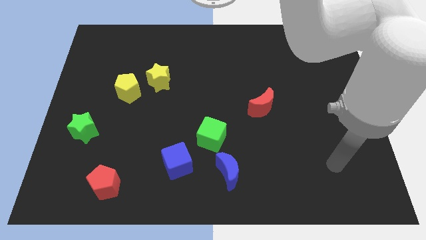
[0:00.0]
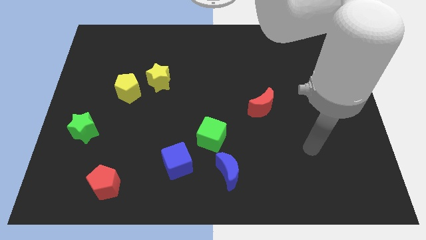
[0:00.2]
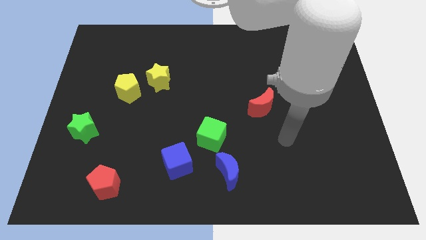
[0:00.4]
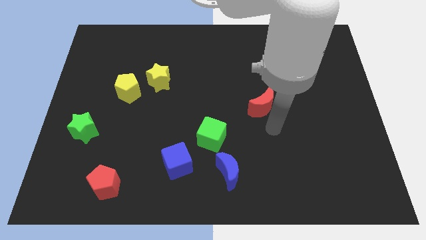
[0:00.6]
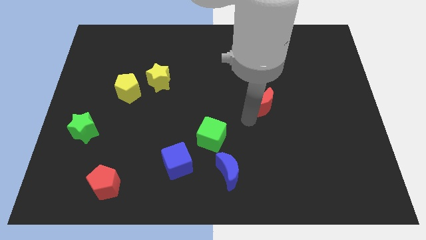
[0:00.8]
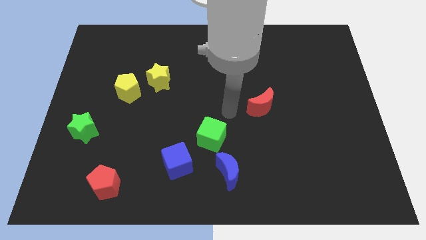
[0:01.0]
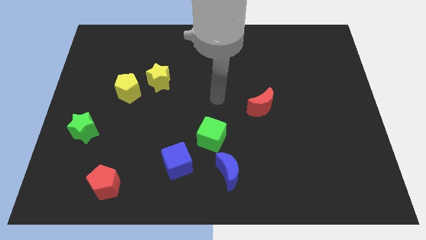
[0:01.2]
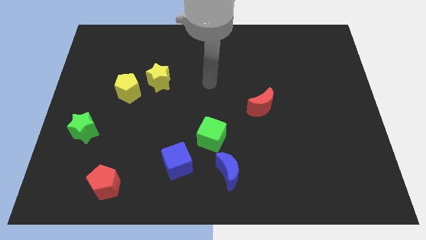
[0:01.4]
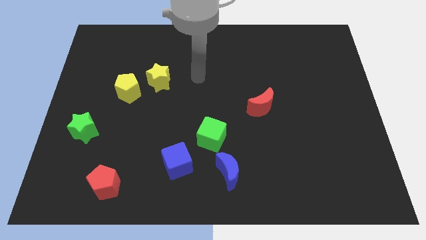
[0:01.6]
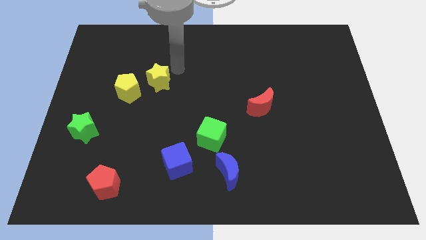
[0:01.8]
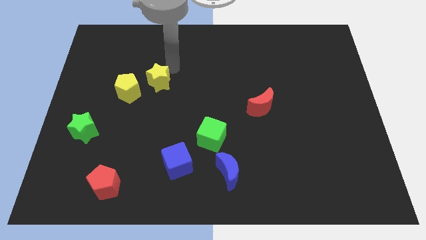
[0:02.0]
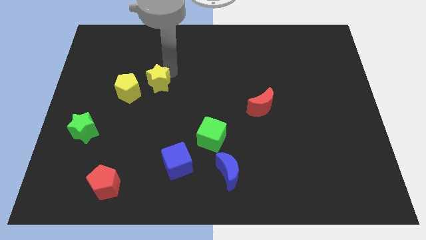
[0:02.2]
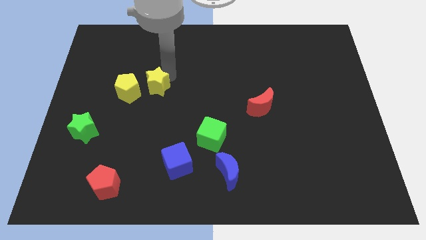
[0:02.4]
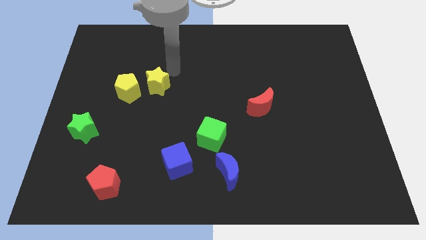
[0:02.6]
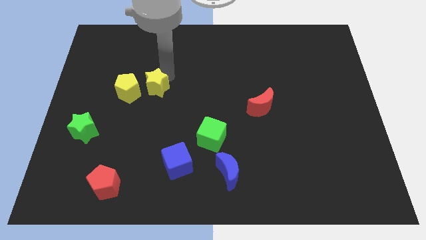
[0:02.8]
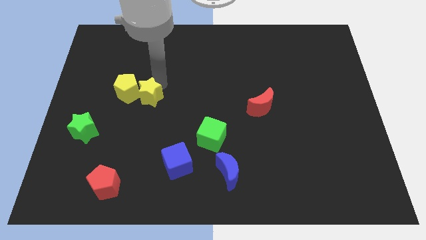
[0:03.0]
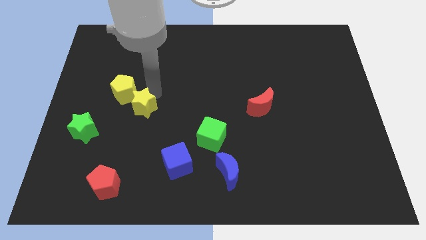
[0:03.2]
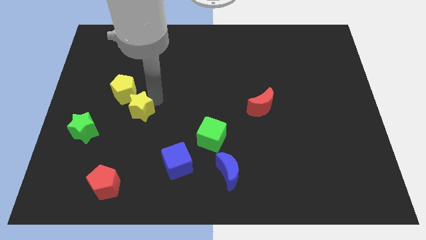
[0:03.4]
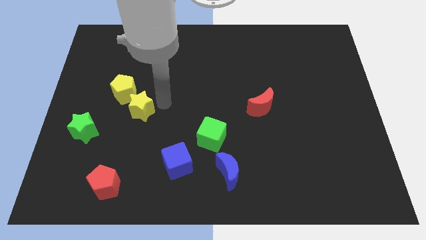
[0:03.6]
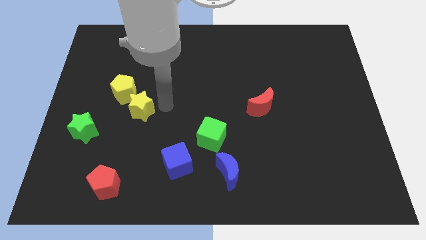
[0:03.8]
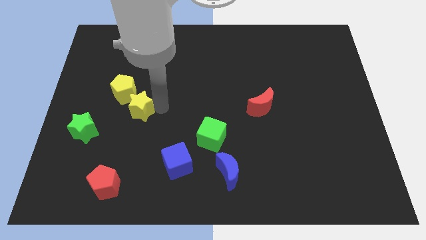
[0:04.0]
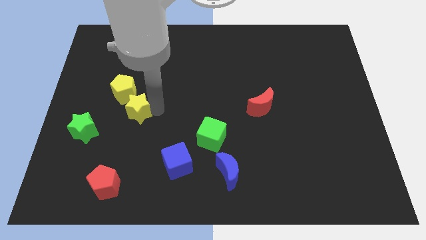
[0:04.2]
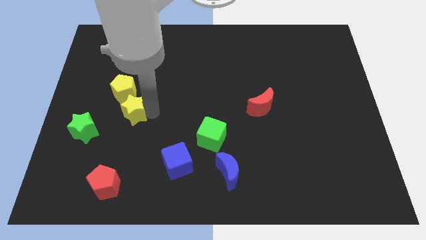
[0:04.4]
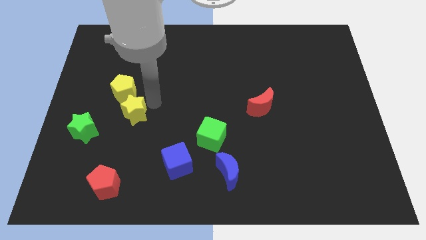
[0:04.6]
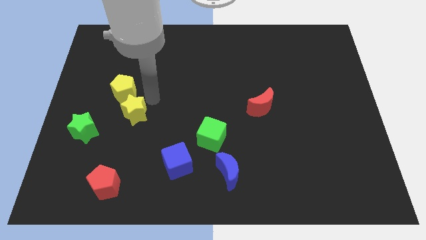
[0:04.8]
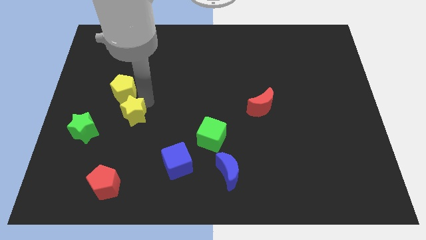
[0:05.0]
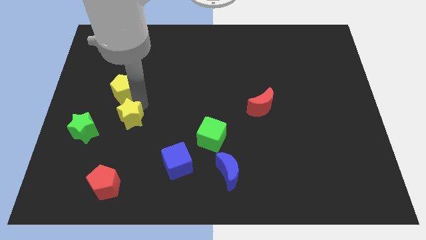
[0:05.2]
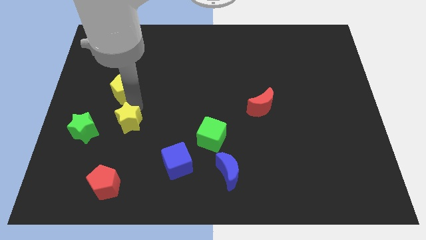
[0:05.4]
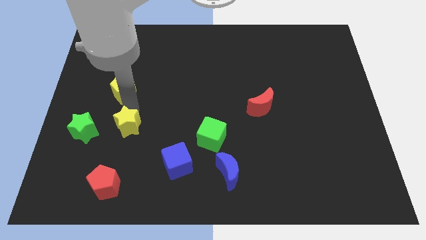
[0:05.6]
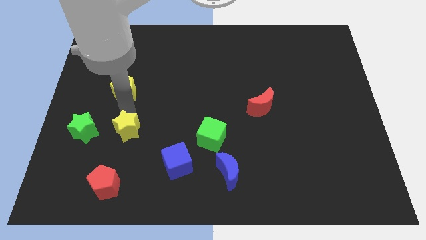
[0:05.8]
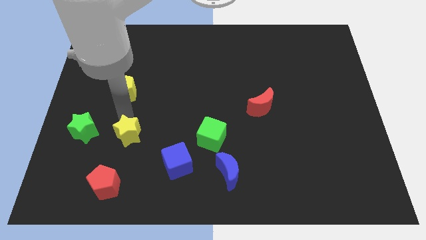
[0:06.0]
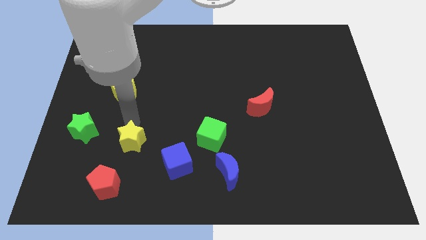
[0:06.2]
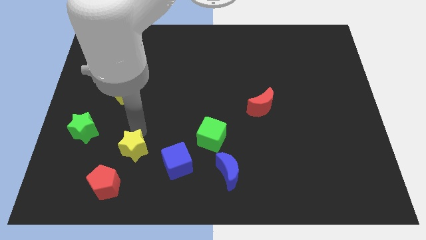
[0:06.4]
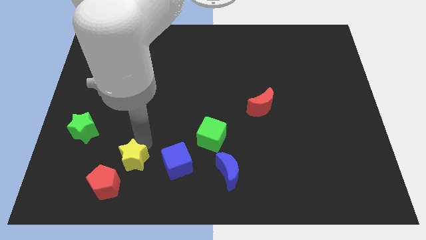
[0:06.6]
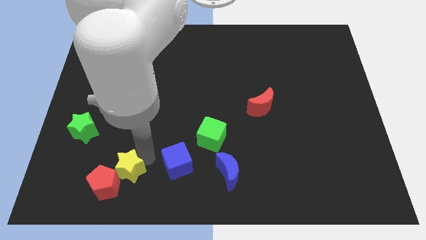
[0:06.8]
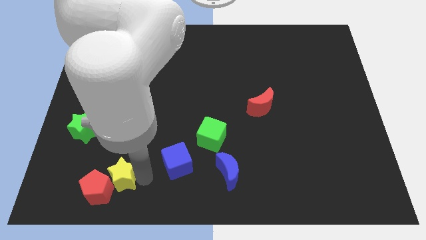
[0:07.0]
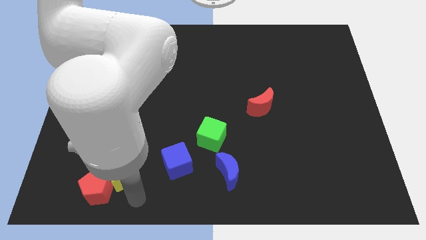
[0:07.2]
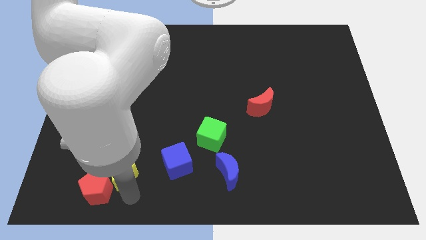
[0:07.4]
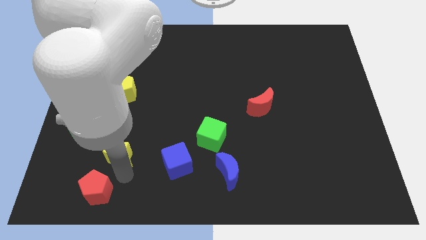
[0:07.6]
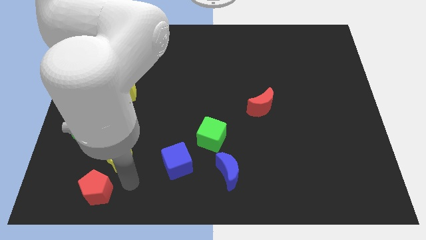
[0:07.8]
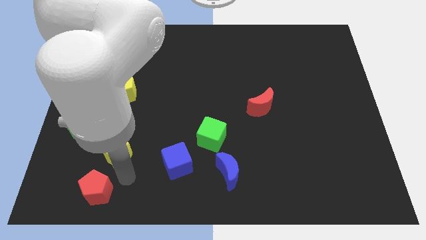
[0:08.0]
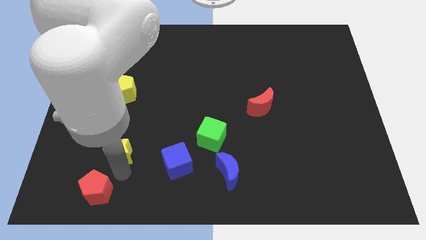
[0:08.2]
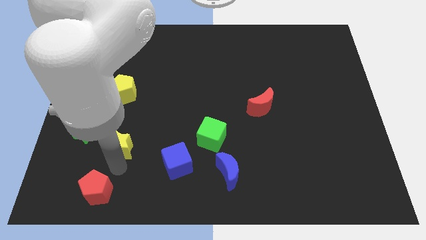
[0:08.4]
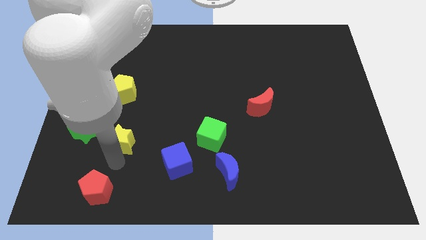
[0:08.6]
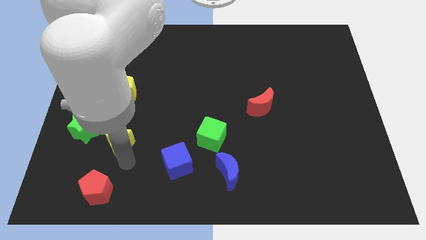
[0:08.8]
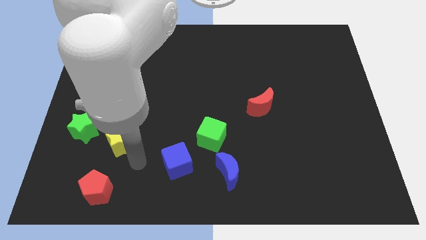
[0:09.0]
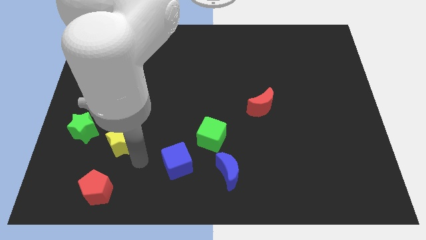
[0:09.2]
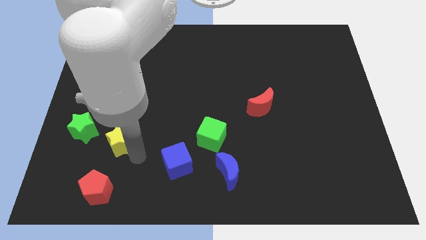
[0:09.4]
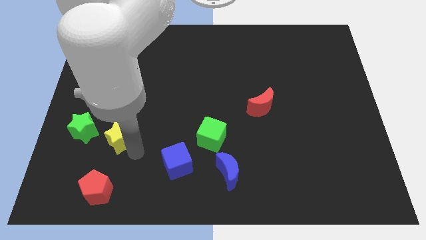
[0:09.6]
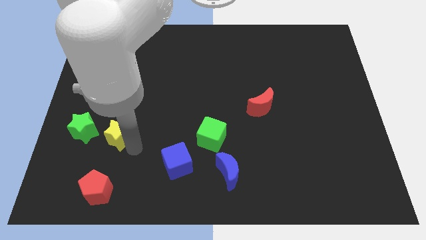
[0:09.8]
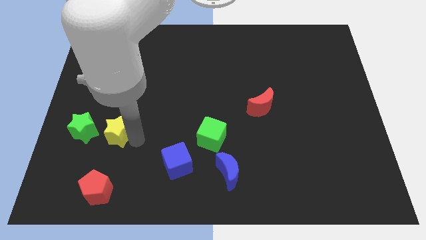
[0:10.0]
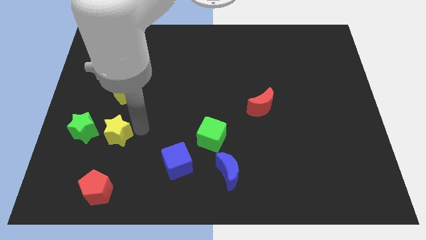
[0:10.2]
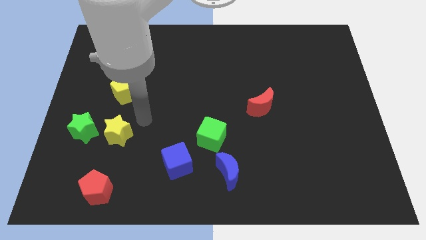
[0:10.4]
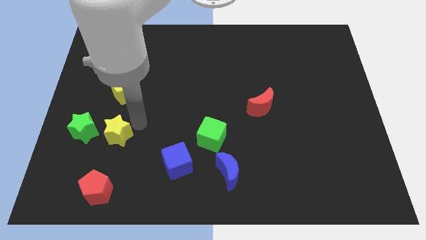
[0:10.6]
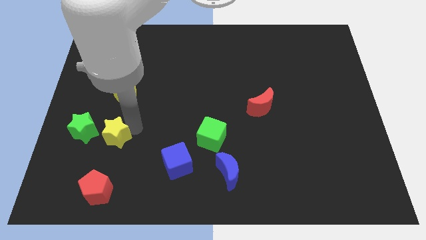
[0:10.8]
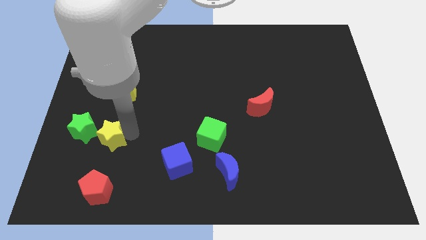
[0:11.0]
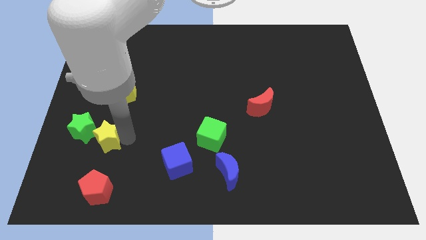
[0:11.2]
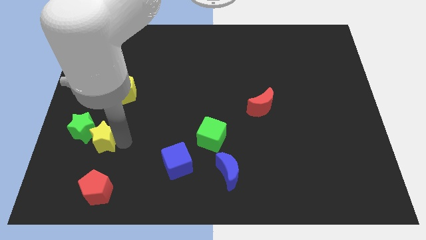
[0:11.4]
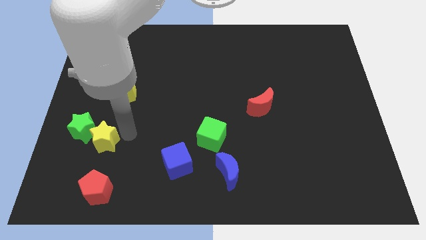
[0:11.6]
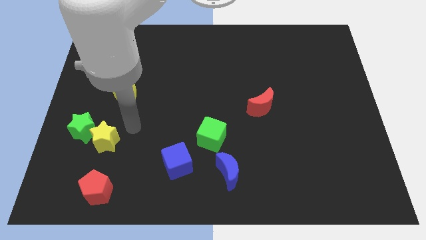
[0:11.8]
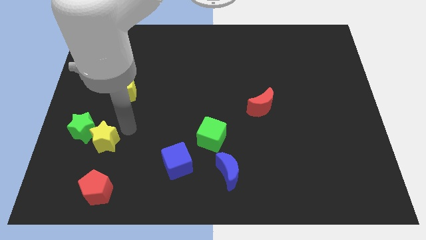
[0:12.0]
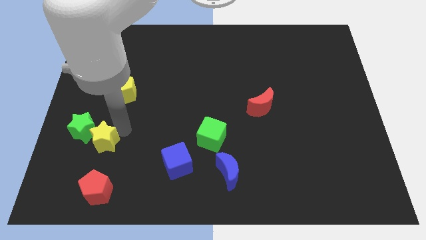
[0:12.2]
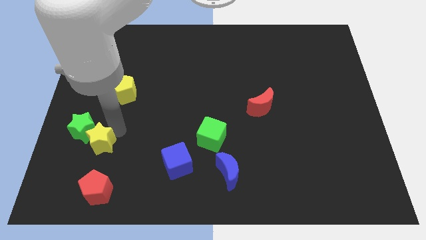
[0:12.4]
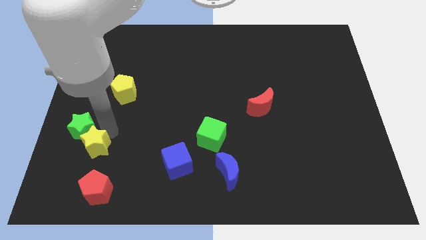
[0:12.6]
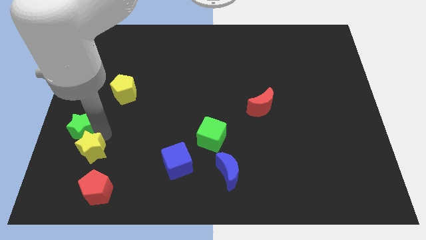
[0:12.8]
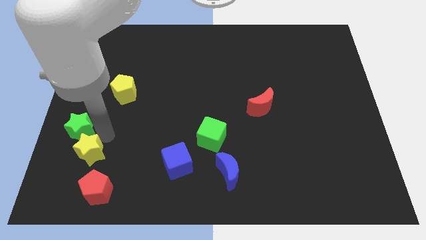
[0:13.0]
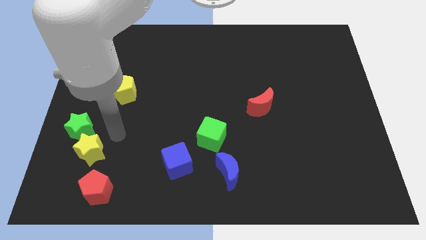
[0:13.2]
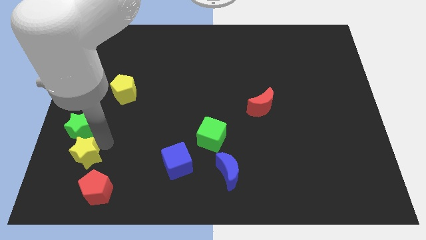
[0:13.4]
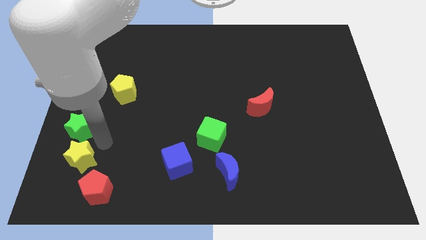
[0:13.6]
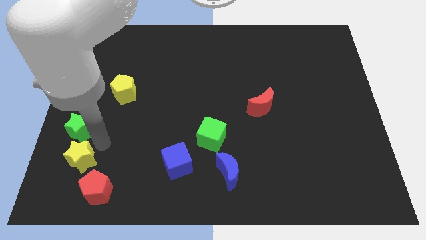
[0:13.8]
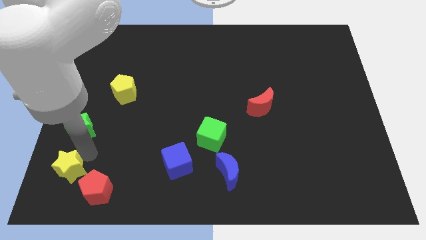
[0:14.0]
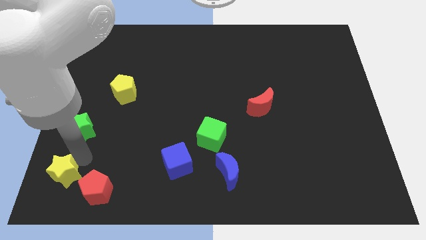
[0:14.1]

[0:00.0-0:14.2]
slide the yellow star to the bottom left corner
